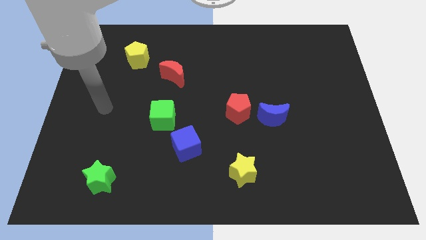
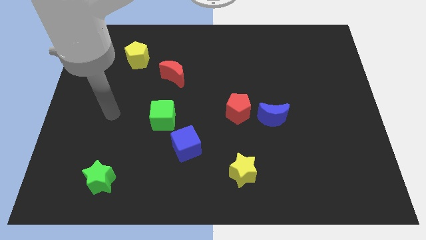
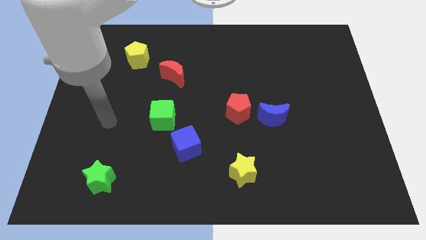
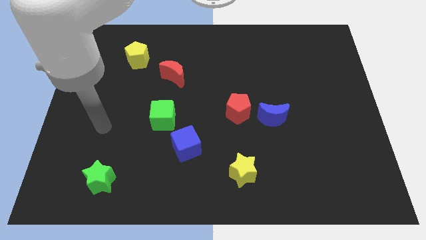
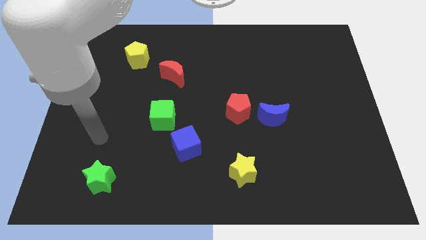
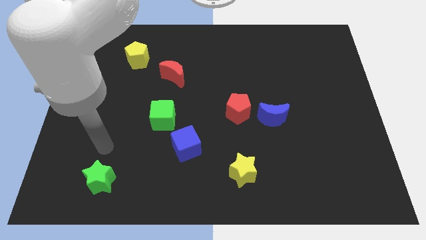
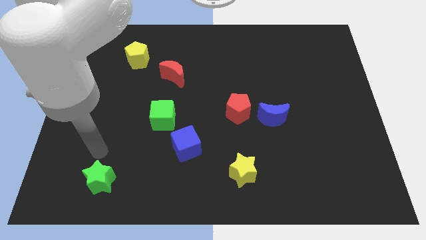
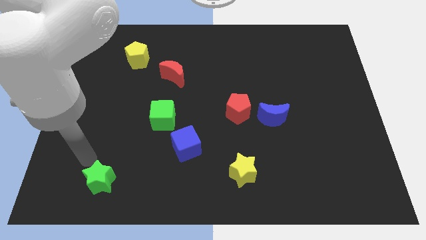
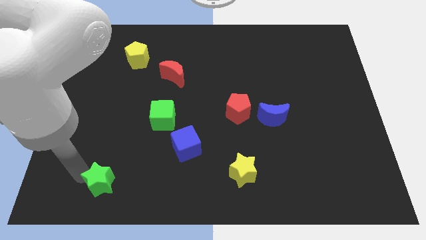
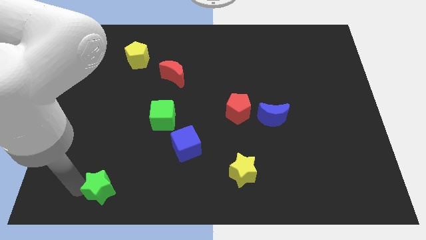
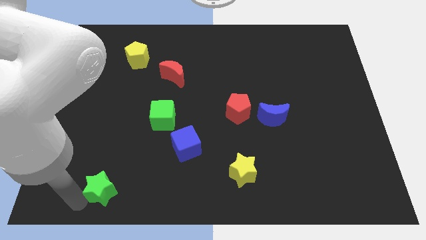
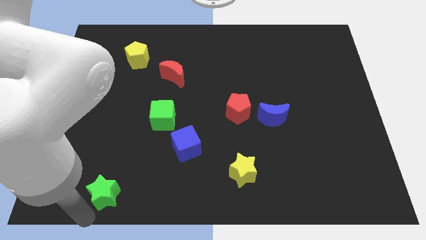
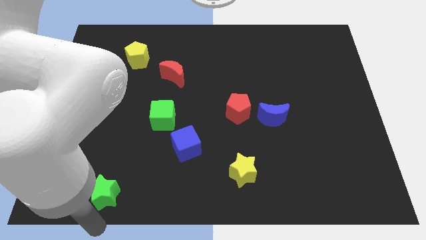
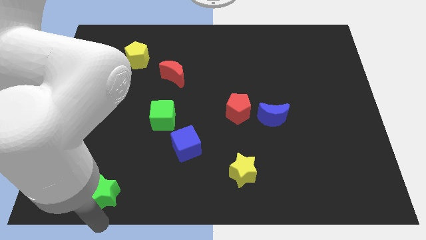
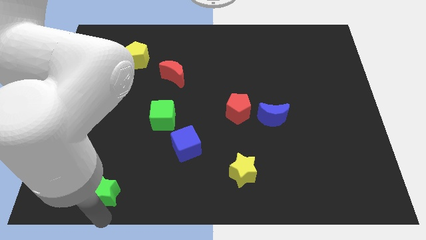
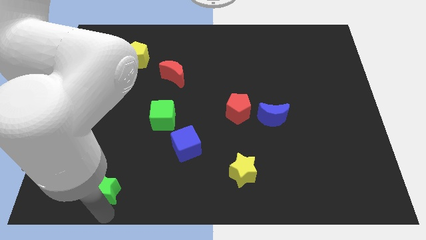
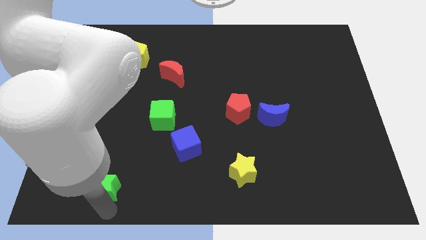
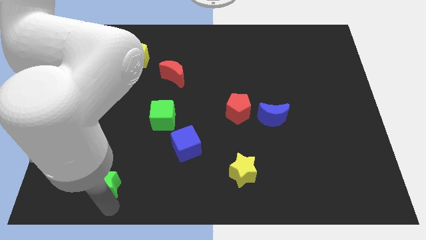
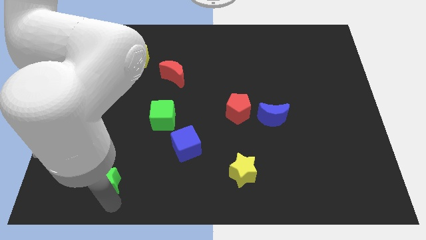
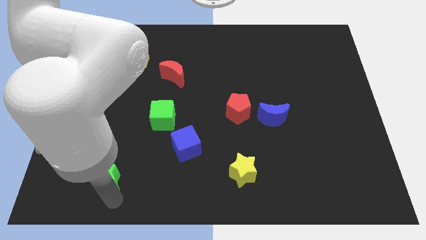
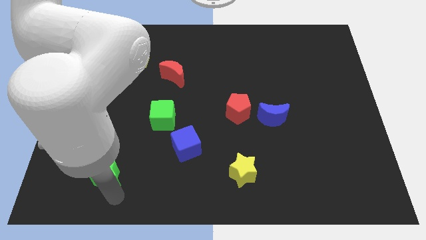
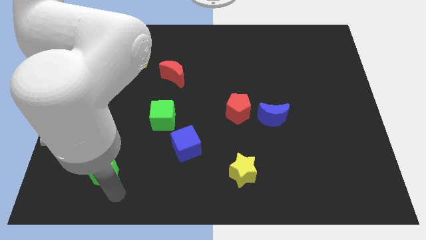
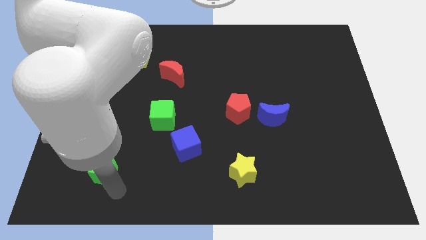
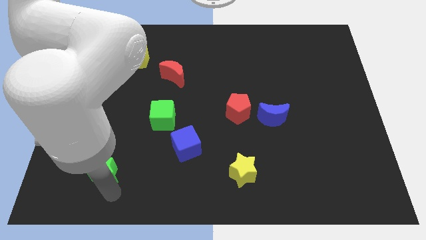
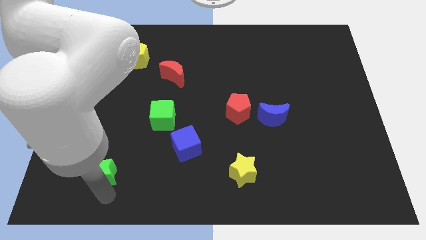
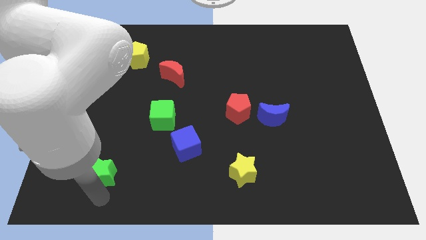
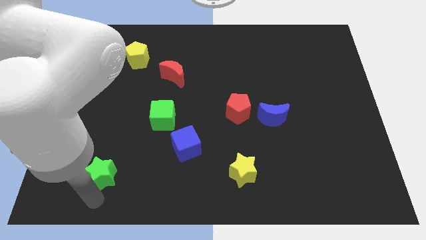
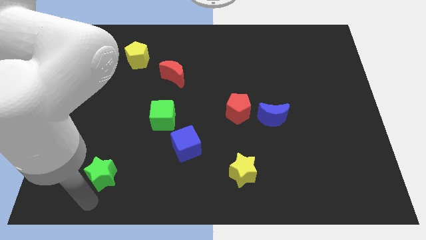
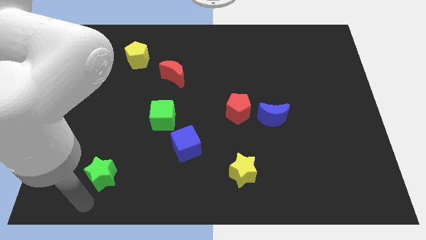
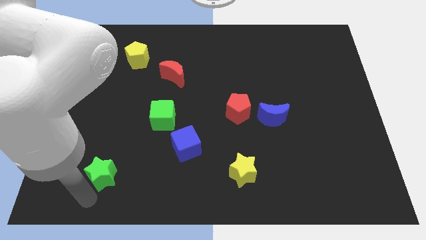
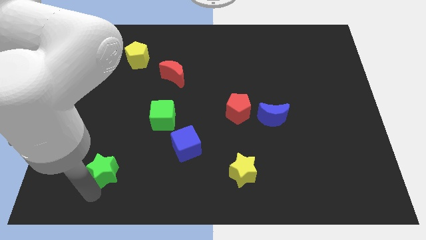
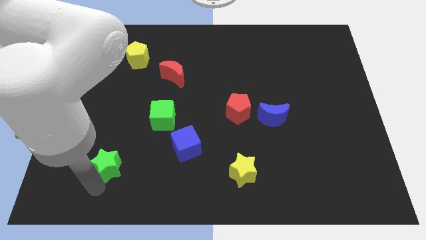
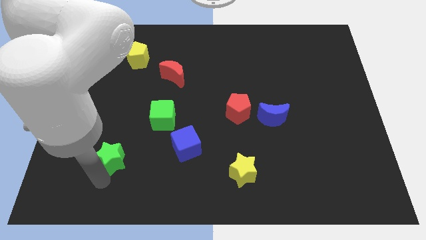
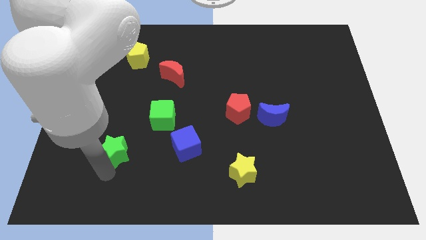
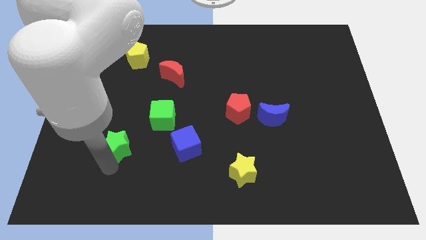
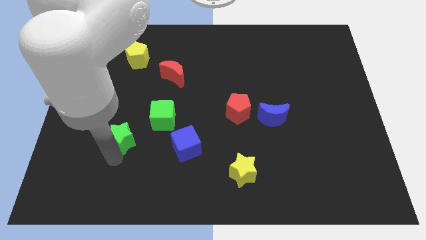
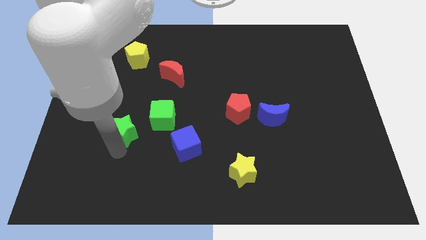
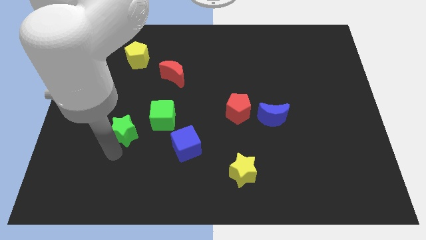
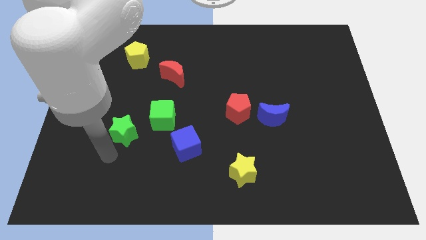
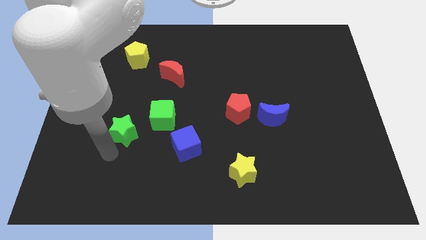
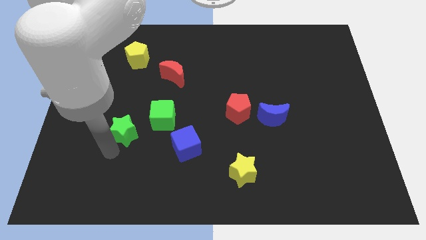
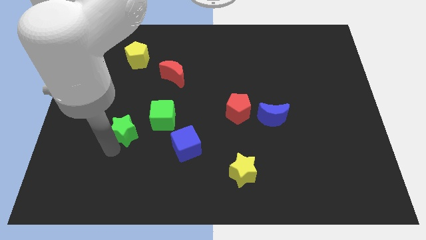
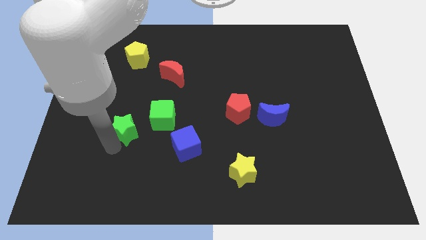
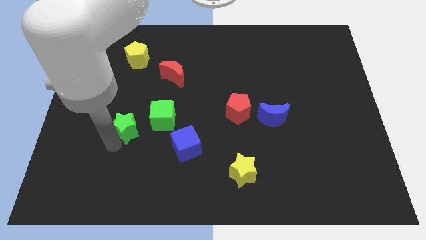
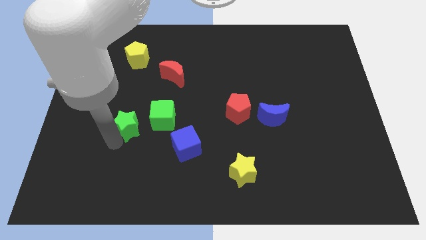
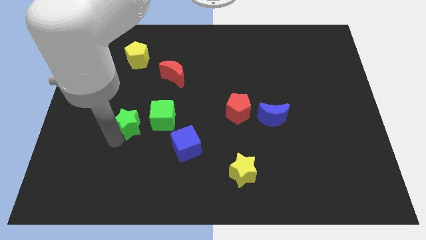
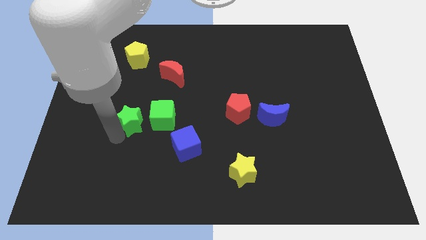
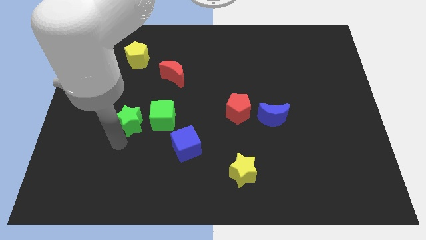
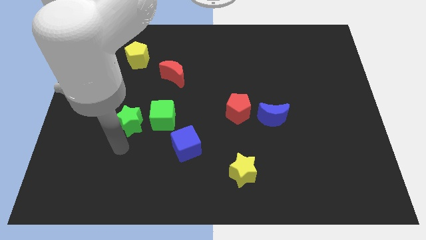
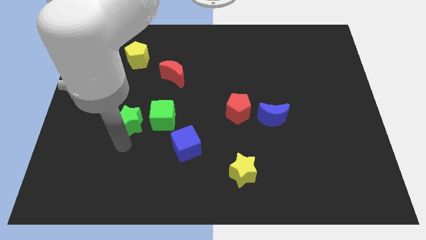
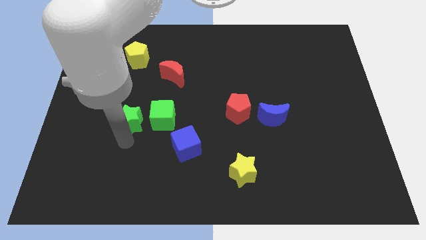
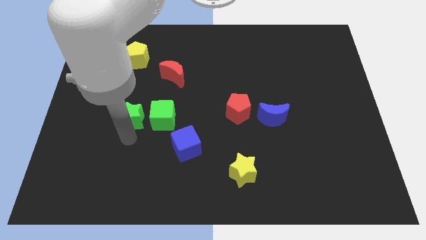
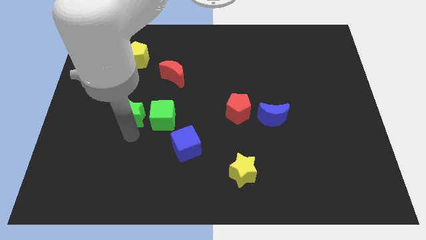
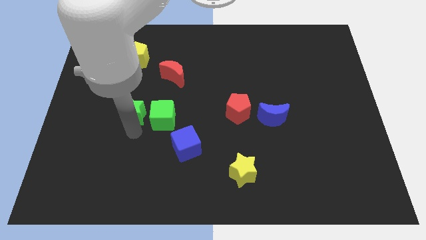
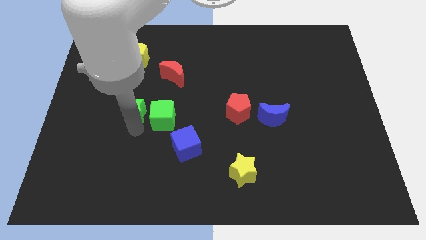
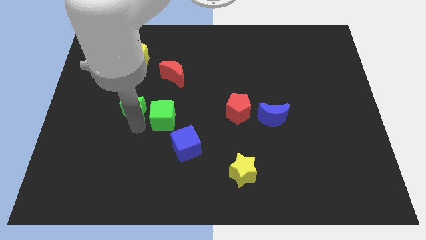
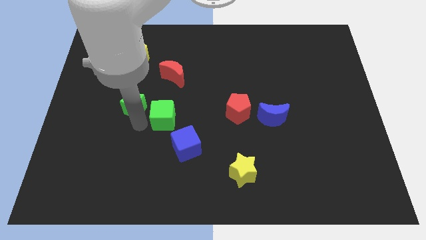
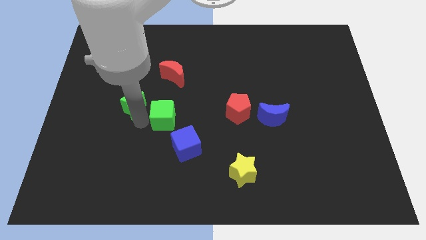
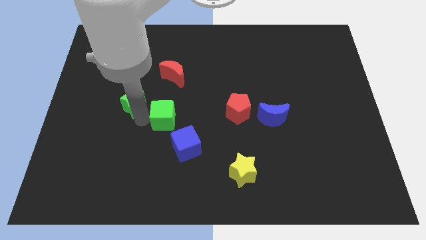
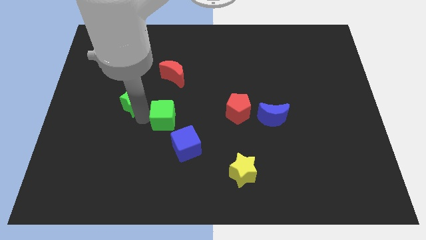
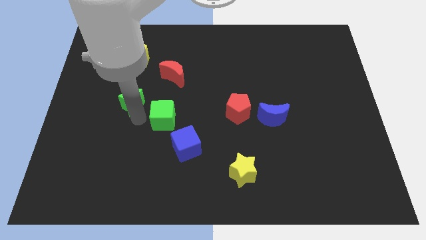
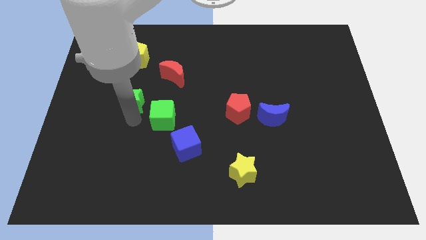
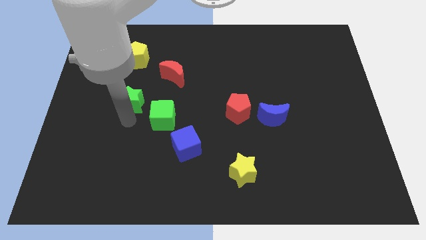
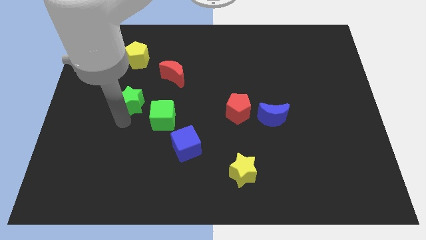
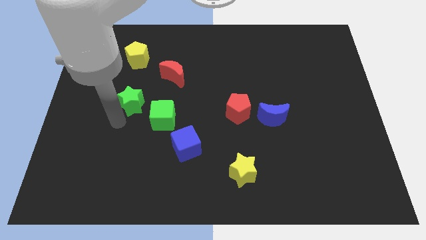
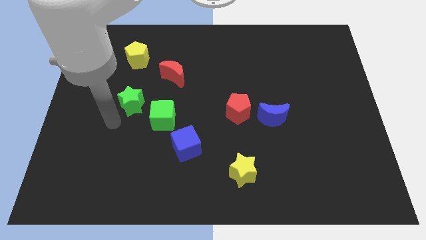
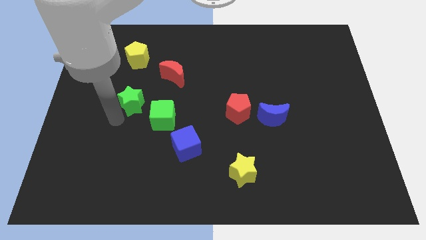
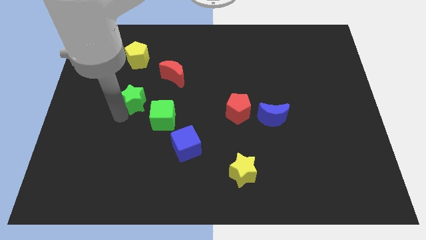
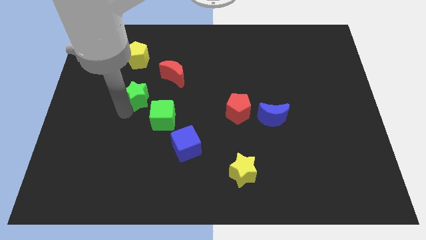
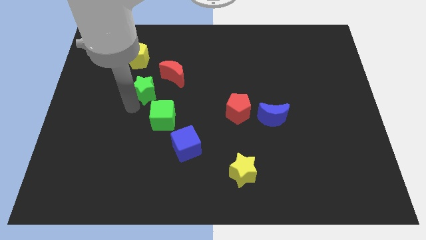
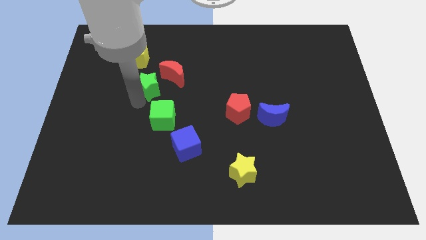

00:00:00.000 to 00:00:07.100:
push the green star to the bottom right side of the yellow pentagon
